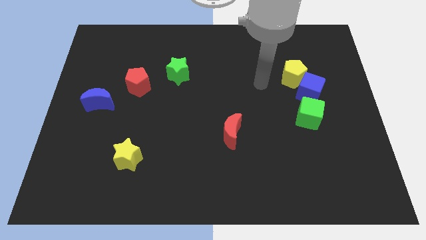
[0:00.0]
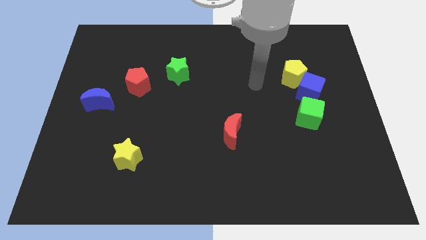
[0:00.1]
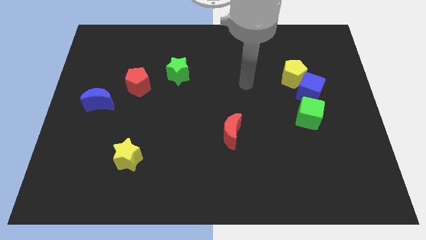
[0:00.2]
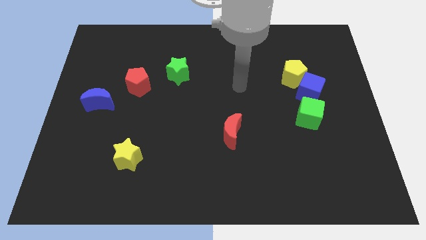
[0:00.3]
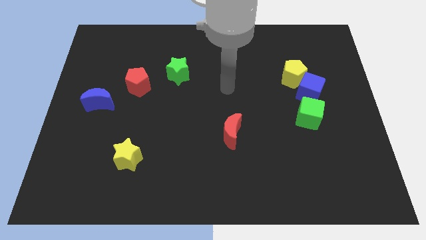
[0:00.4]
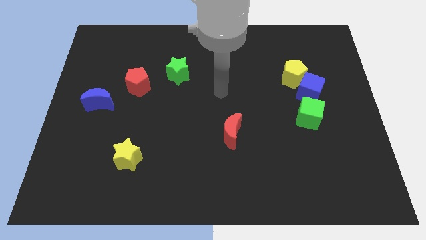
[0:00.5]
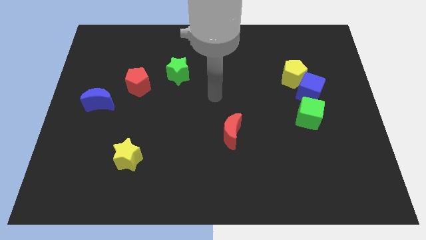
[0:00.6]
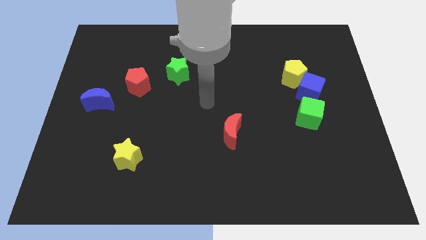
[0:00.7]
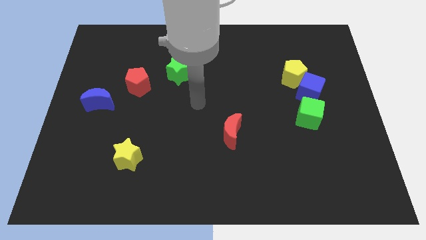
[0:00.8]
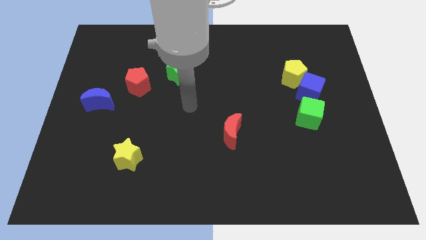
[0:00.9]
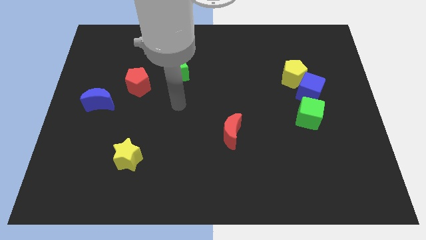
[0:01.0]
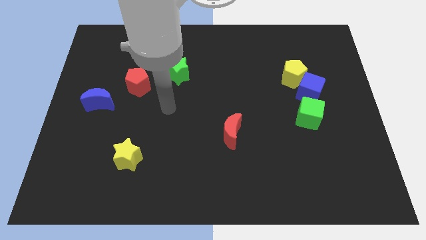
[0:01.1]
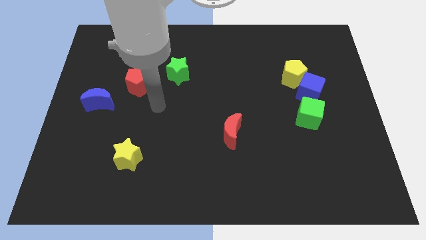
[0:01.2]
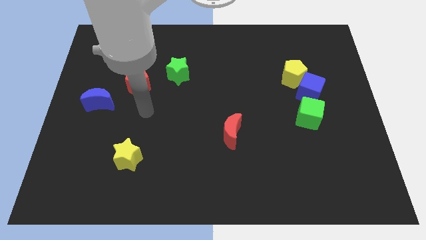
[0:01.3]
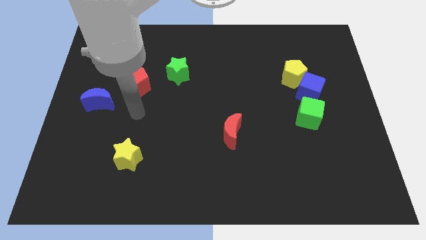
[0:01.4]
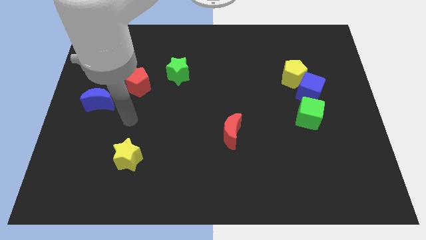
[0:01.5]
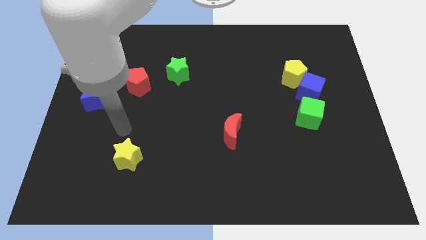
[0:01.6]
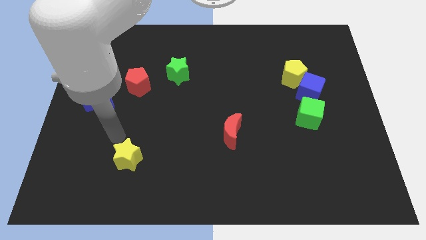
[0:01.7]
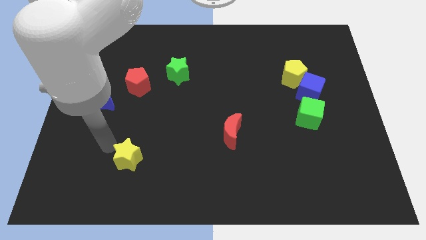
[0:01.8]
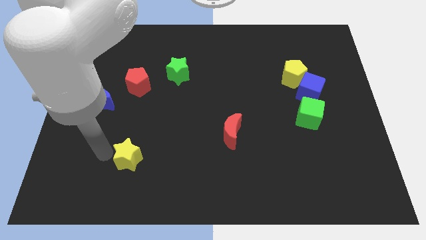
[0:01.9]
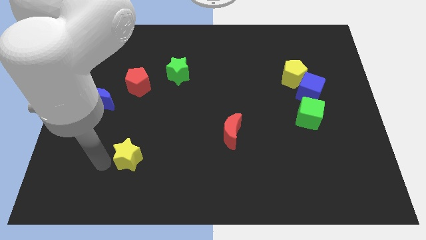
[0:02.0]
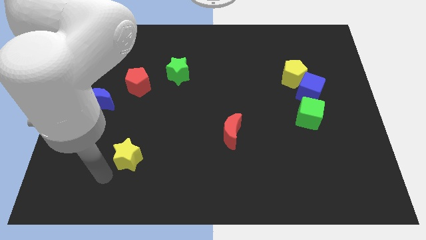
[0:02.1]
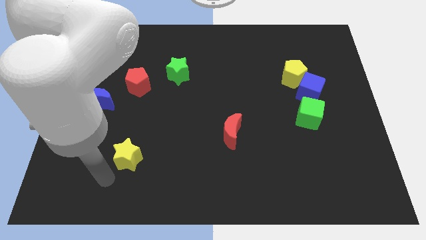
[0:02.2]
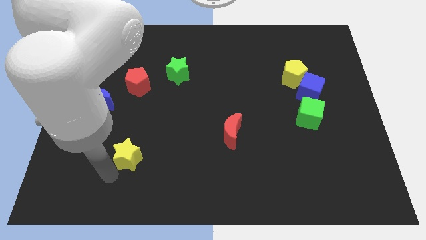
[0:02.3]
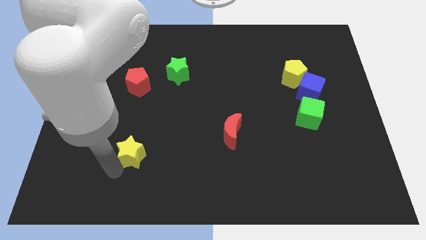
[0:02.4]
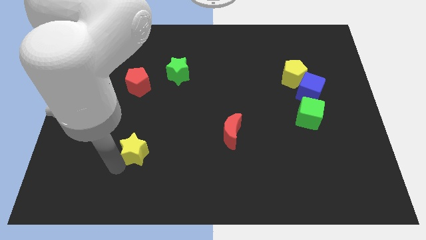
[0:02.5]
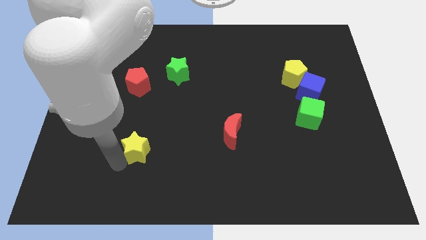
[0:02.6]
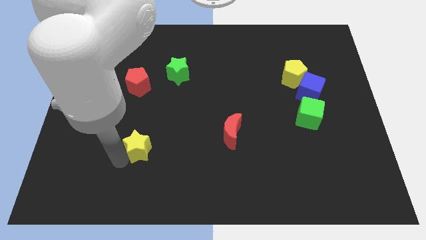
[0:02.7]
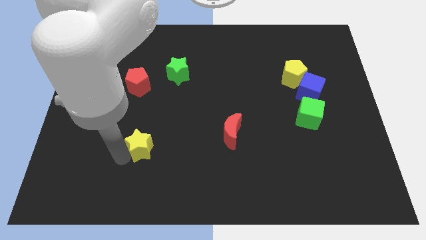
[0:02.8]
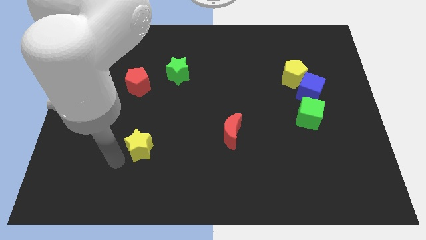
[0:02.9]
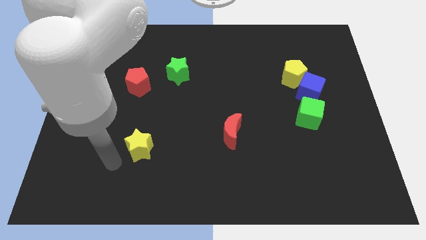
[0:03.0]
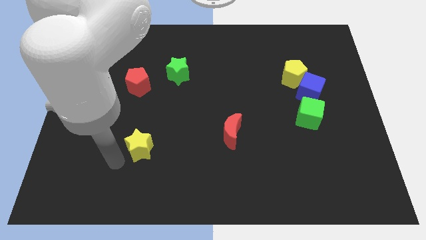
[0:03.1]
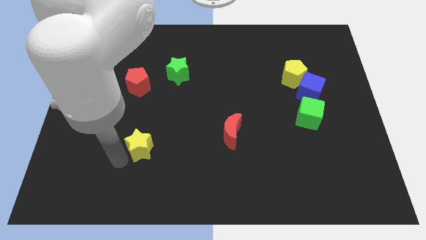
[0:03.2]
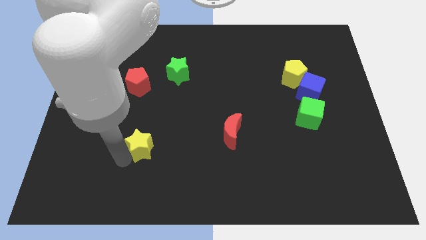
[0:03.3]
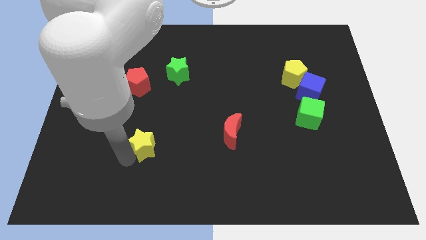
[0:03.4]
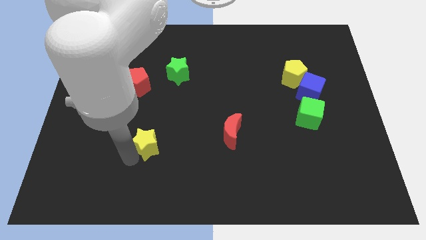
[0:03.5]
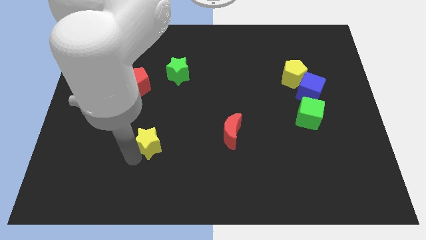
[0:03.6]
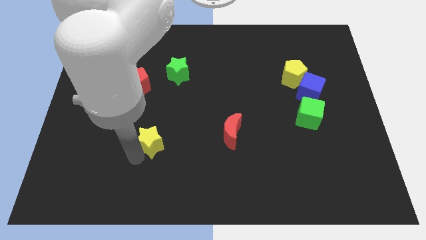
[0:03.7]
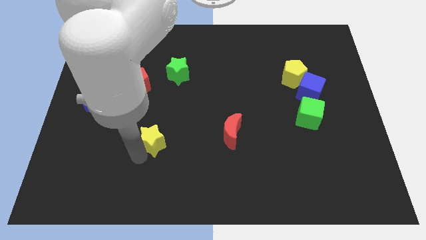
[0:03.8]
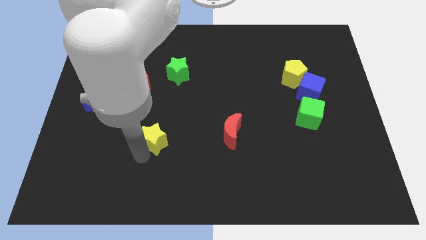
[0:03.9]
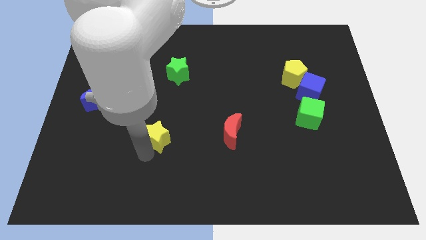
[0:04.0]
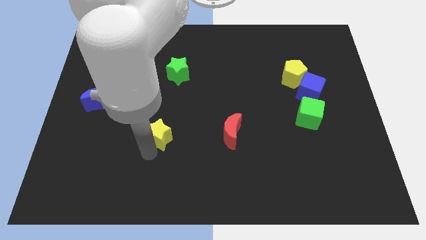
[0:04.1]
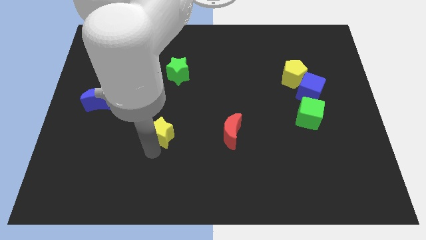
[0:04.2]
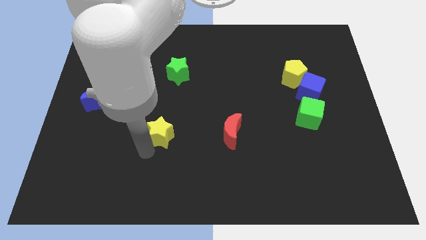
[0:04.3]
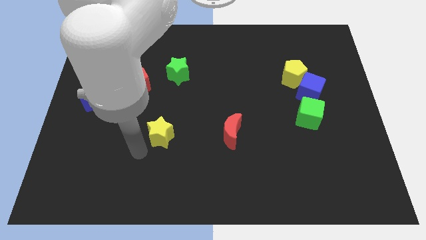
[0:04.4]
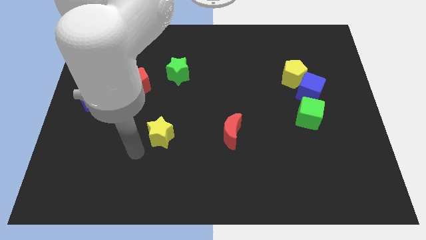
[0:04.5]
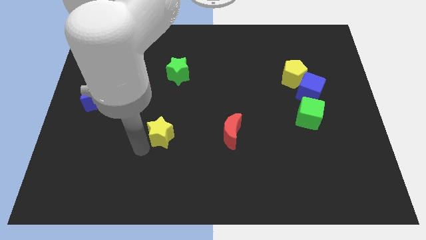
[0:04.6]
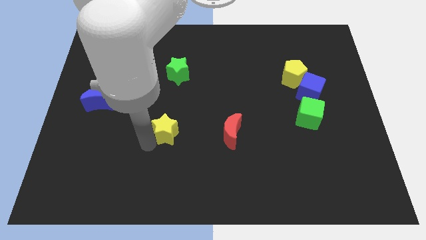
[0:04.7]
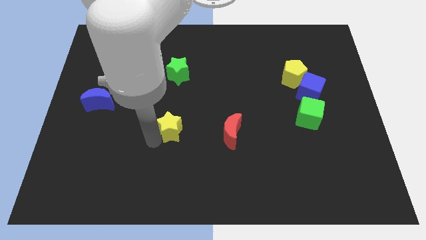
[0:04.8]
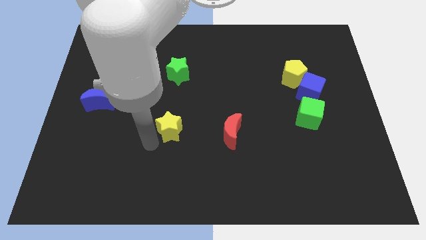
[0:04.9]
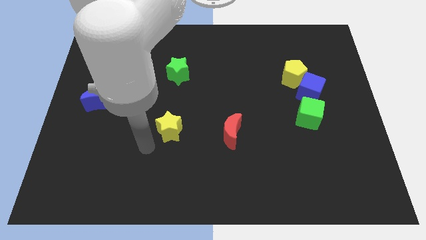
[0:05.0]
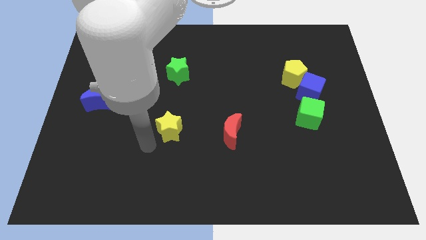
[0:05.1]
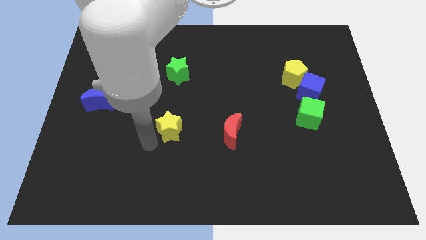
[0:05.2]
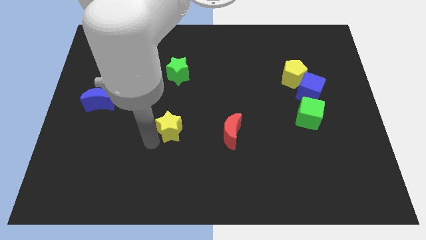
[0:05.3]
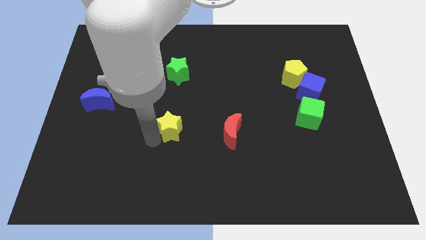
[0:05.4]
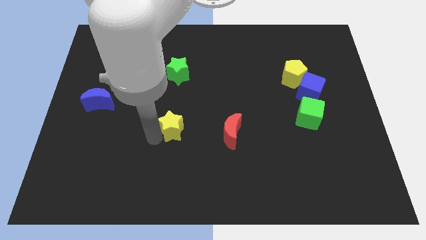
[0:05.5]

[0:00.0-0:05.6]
push the yellow star to the middle of the board

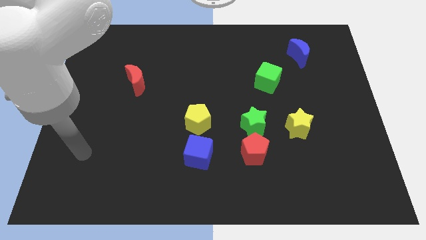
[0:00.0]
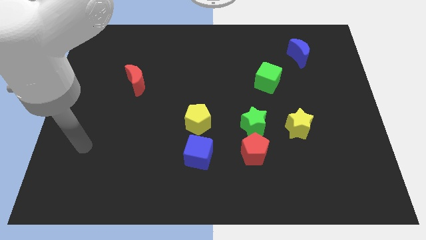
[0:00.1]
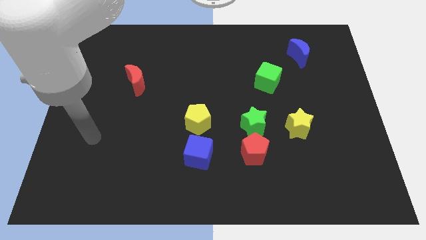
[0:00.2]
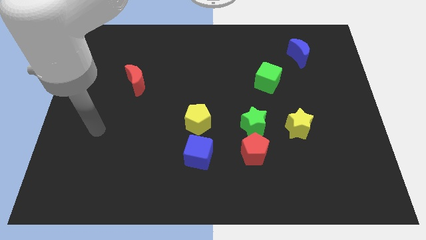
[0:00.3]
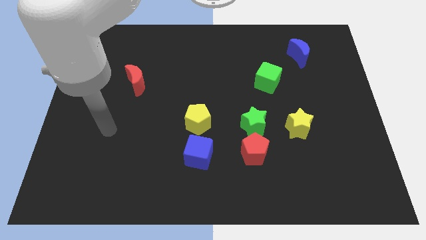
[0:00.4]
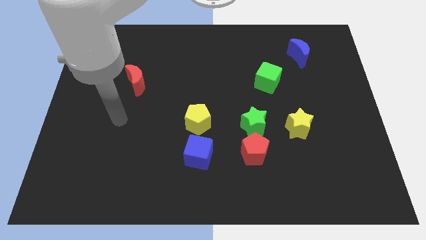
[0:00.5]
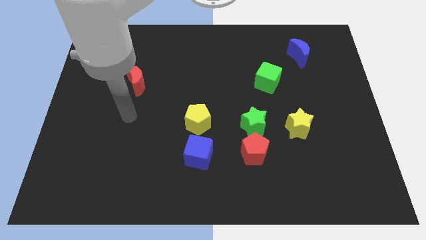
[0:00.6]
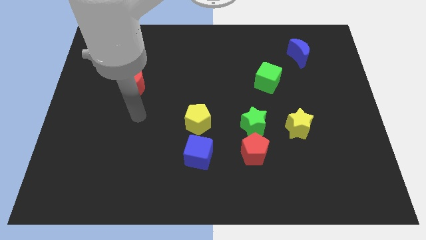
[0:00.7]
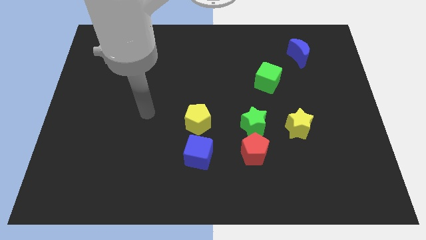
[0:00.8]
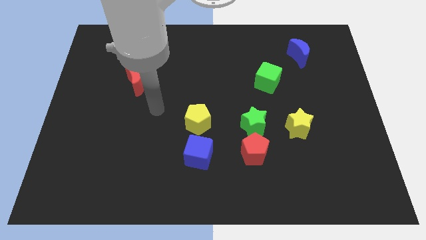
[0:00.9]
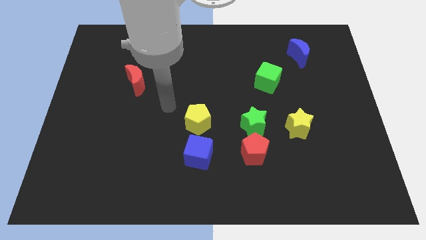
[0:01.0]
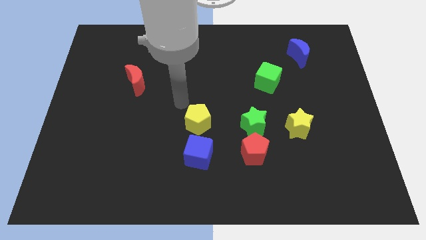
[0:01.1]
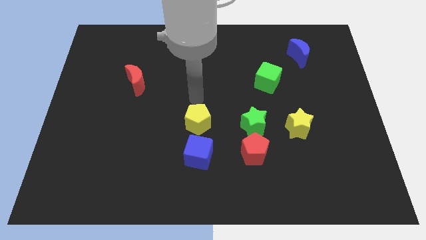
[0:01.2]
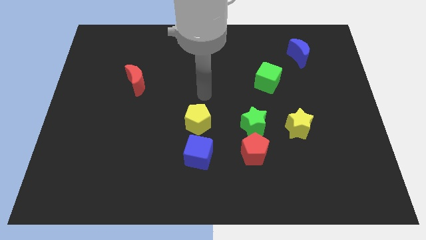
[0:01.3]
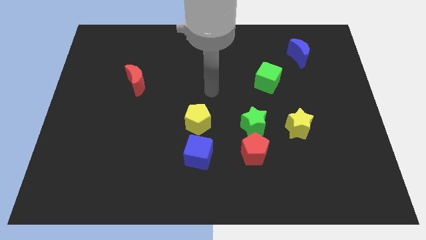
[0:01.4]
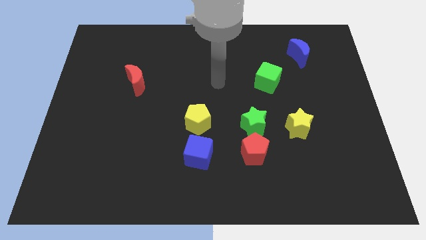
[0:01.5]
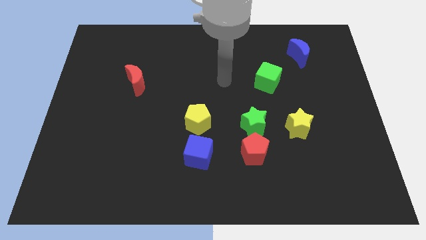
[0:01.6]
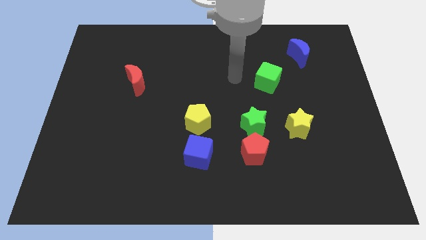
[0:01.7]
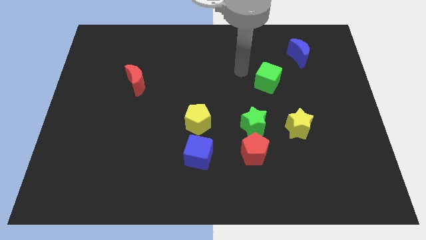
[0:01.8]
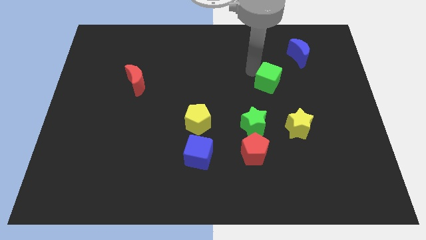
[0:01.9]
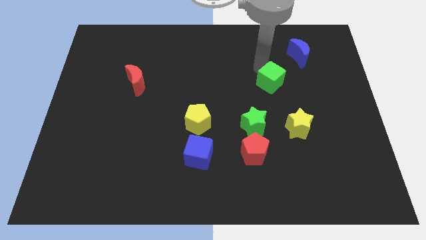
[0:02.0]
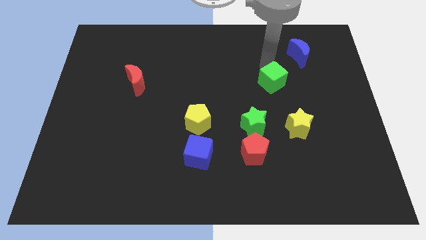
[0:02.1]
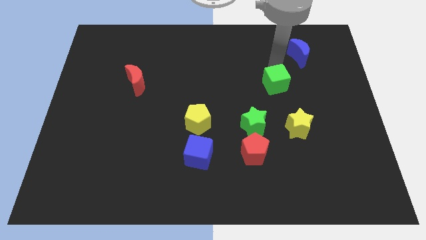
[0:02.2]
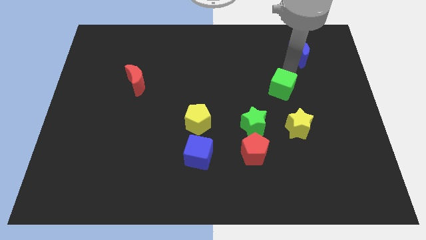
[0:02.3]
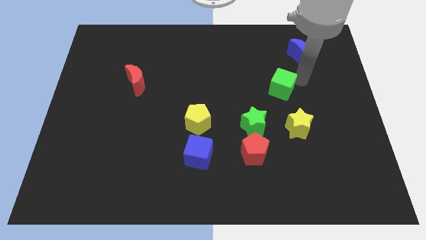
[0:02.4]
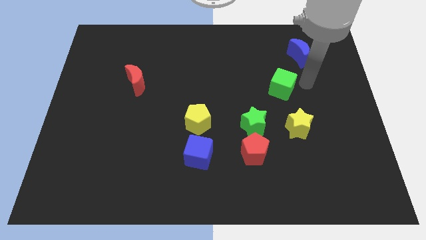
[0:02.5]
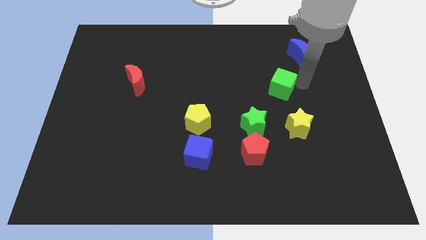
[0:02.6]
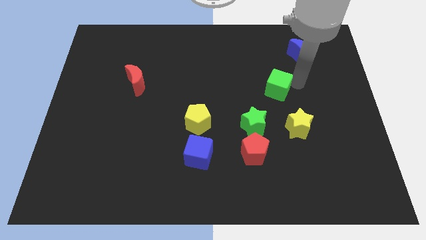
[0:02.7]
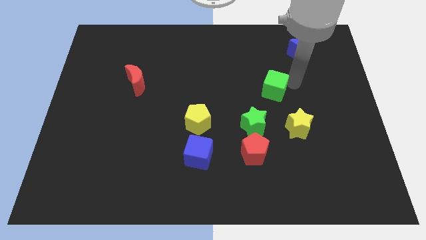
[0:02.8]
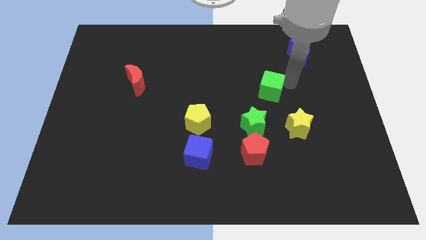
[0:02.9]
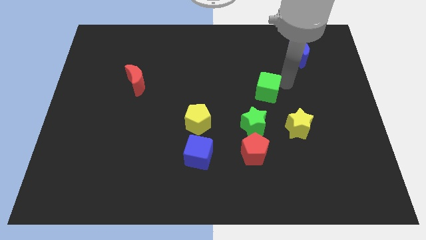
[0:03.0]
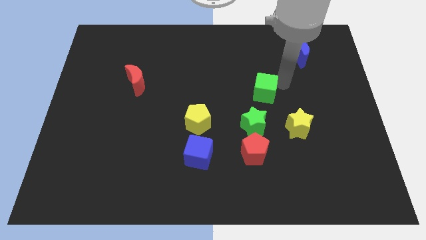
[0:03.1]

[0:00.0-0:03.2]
put the green cube to the center
